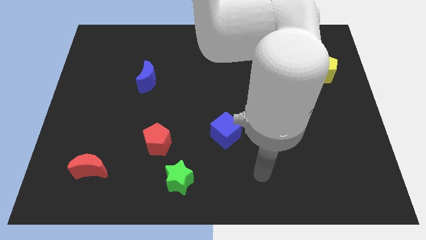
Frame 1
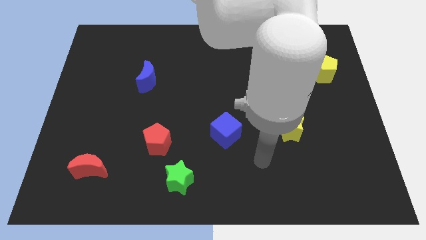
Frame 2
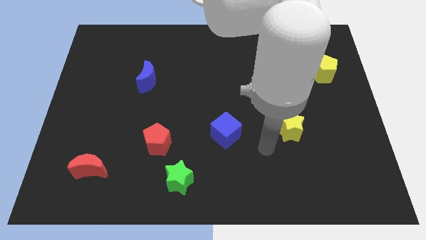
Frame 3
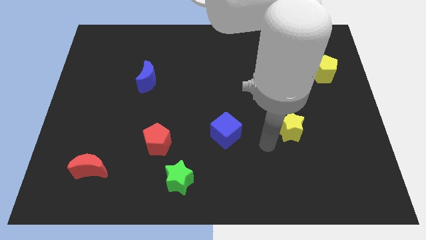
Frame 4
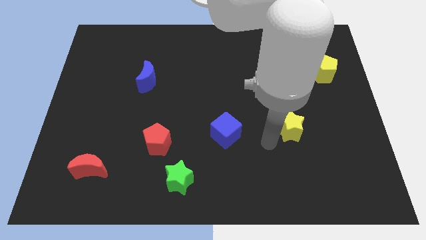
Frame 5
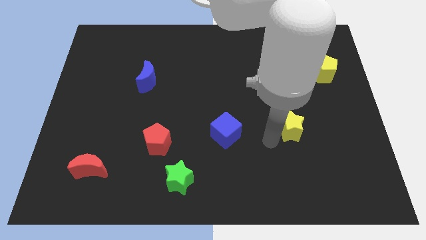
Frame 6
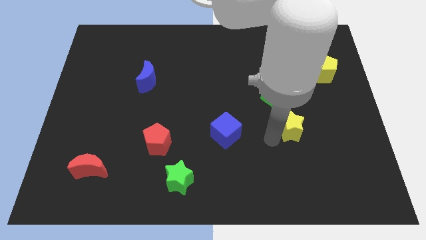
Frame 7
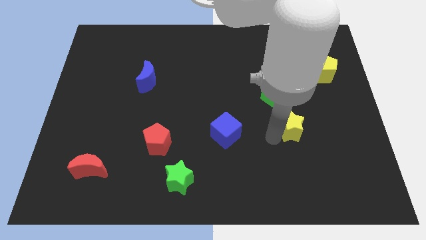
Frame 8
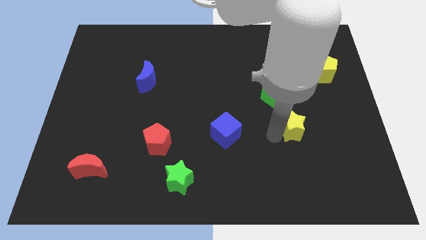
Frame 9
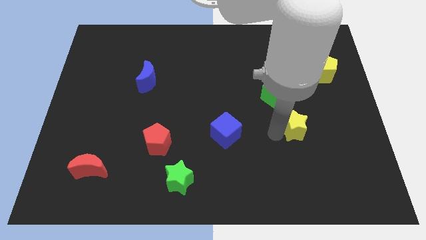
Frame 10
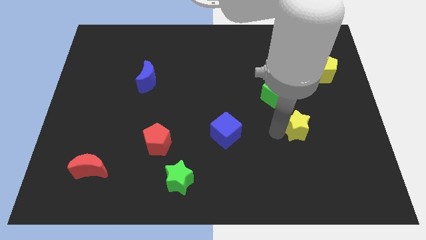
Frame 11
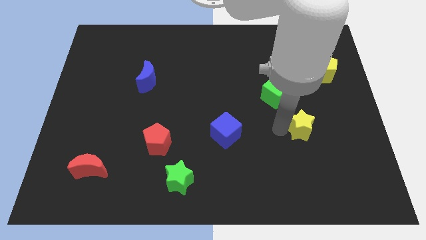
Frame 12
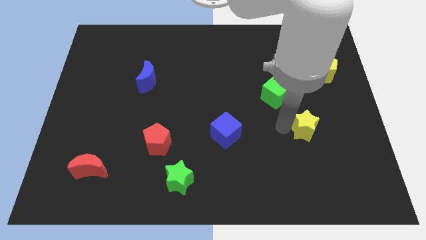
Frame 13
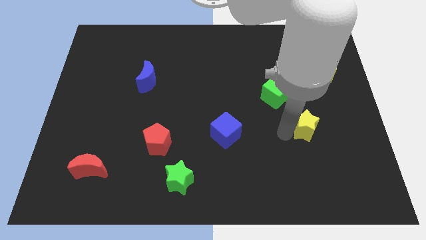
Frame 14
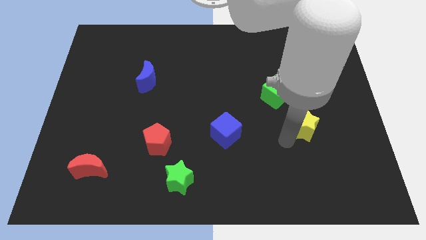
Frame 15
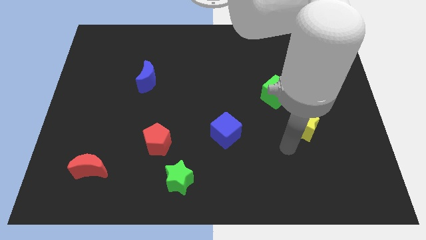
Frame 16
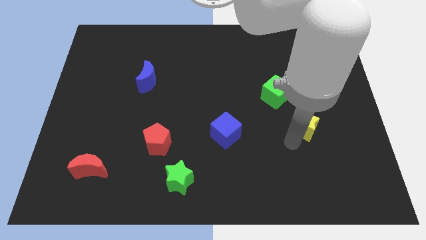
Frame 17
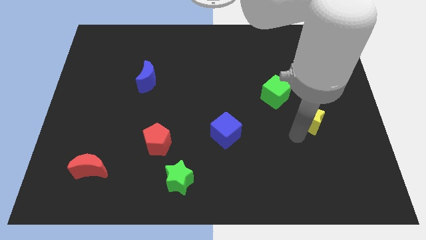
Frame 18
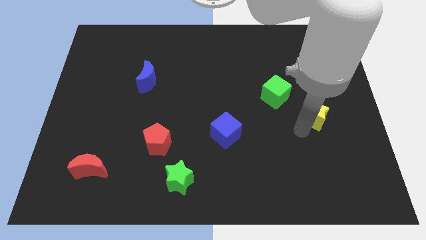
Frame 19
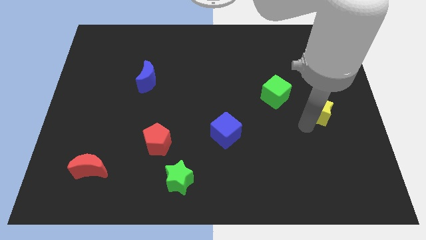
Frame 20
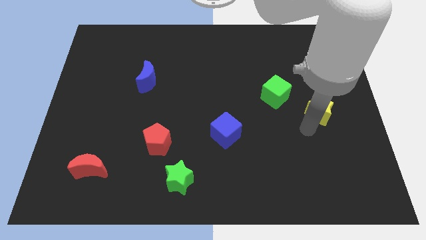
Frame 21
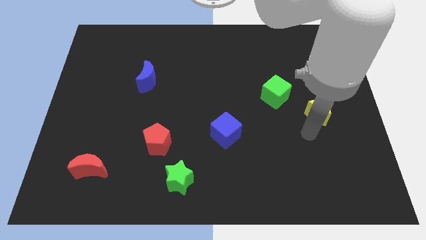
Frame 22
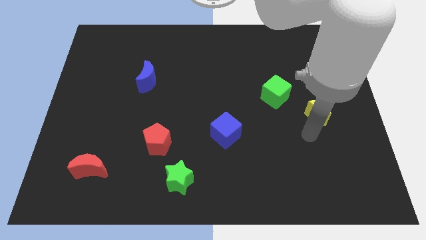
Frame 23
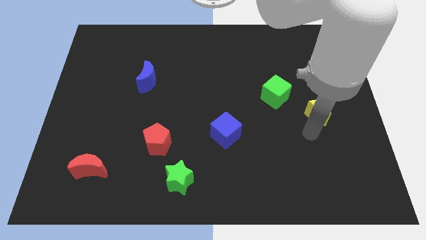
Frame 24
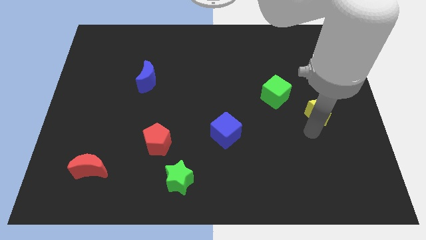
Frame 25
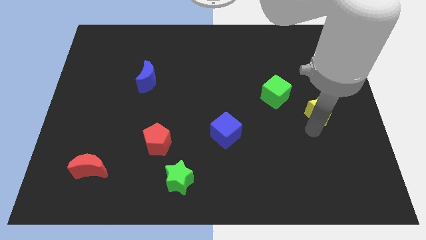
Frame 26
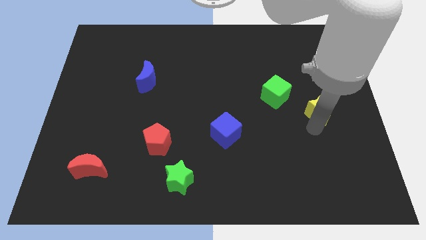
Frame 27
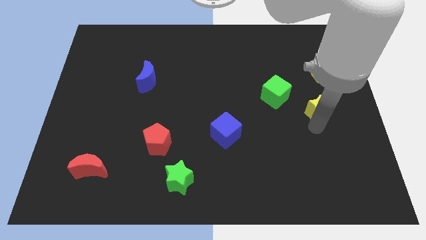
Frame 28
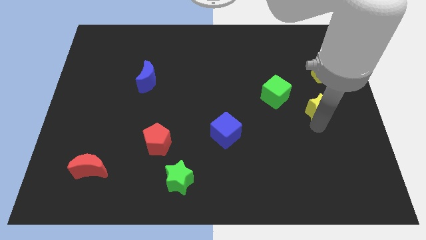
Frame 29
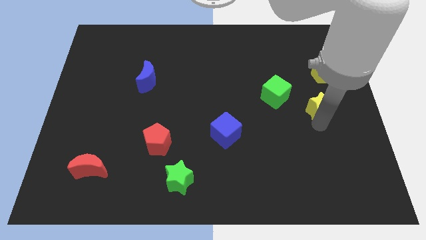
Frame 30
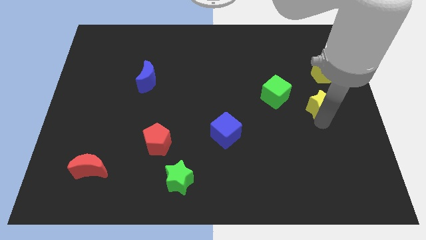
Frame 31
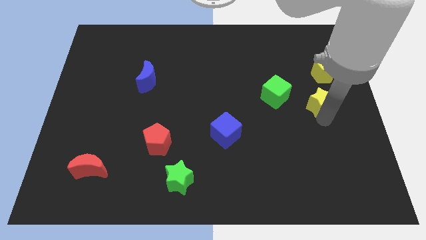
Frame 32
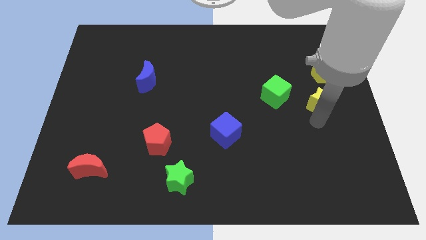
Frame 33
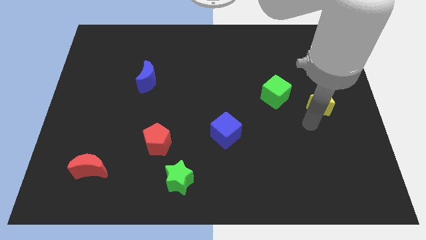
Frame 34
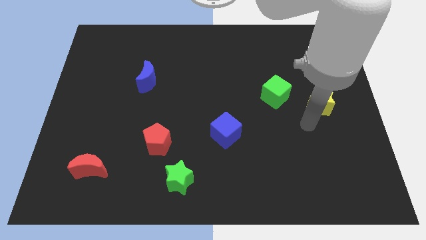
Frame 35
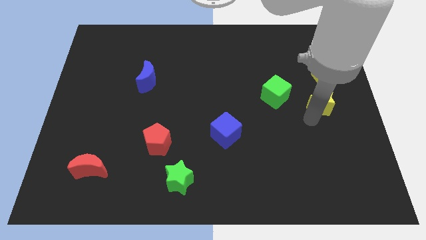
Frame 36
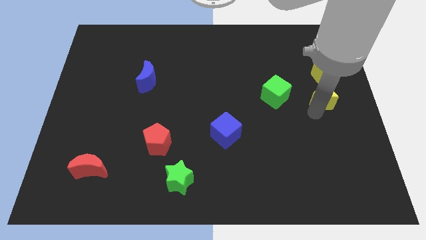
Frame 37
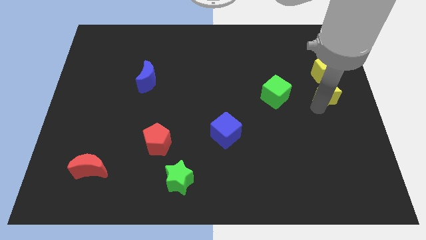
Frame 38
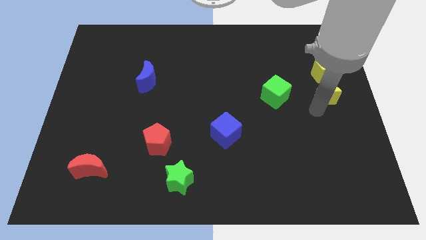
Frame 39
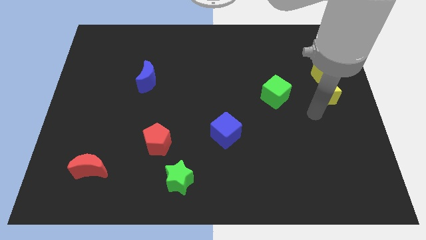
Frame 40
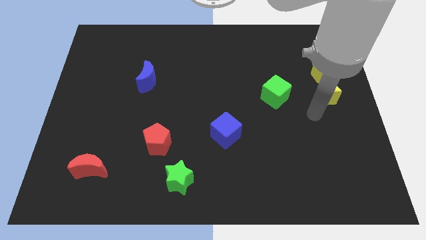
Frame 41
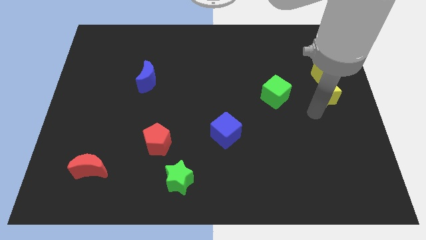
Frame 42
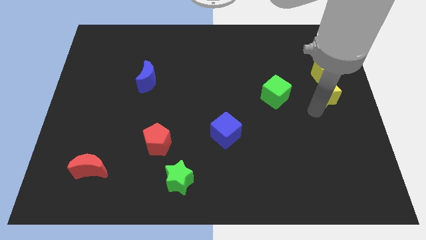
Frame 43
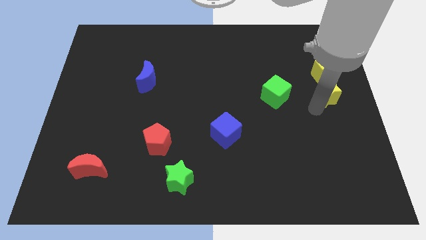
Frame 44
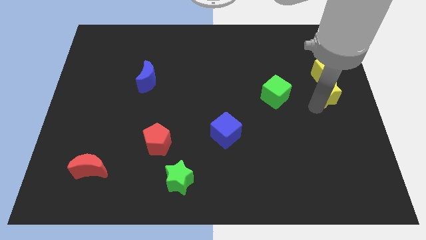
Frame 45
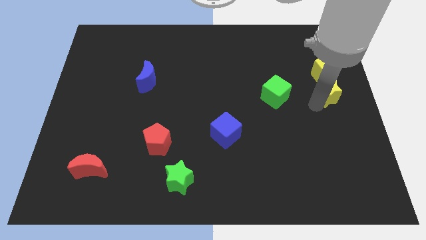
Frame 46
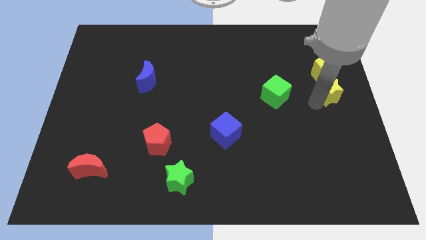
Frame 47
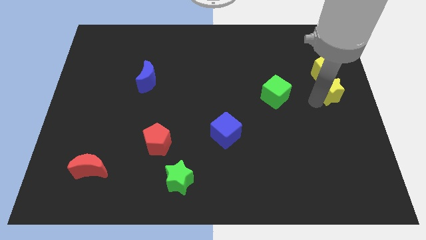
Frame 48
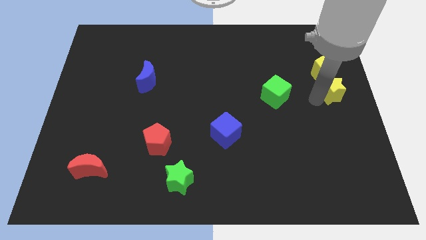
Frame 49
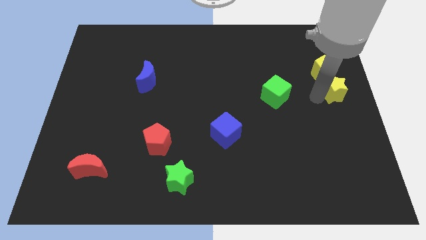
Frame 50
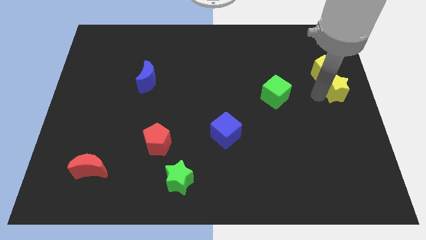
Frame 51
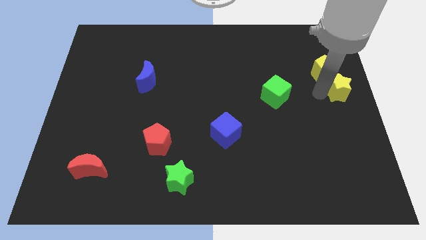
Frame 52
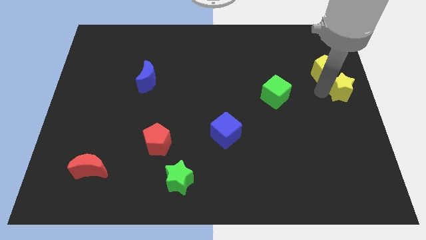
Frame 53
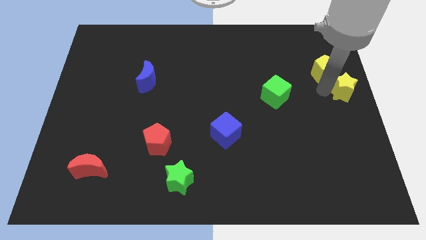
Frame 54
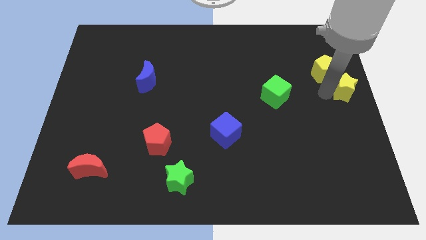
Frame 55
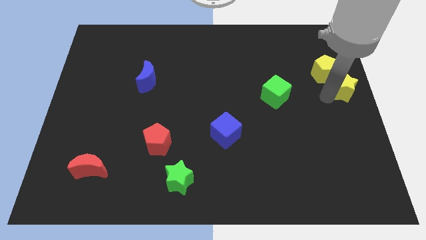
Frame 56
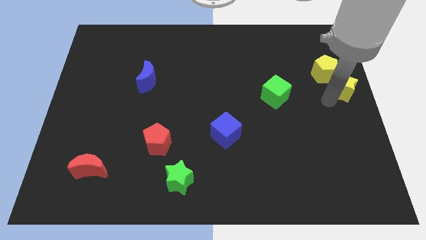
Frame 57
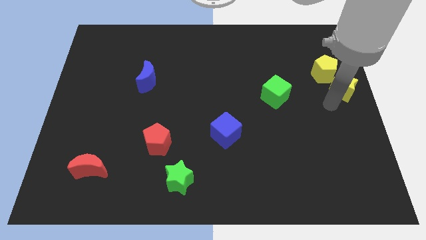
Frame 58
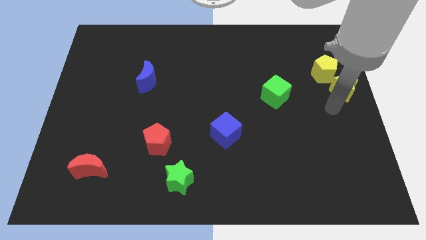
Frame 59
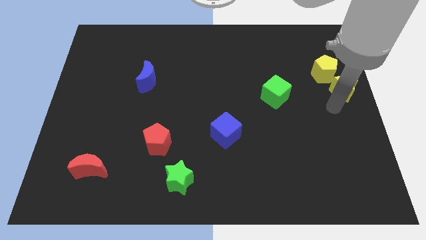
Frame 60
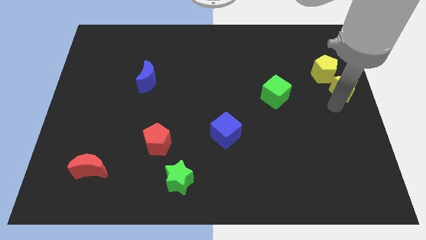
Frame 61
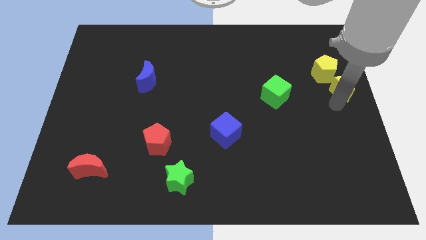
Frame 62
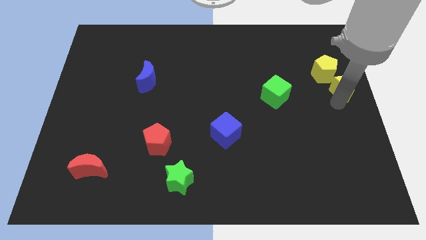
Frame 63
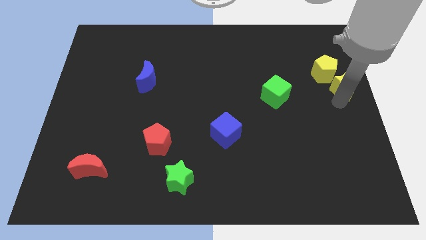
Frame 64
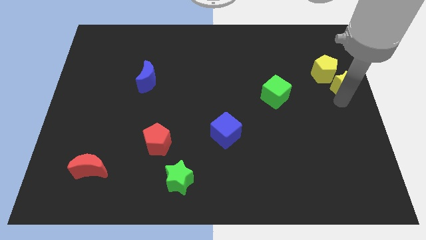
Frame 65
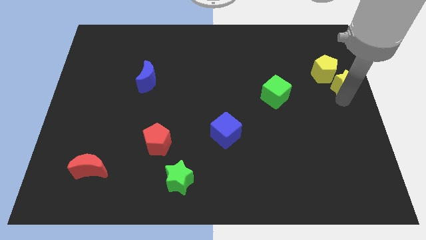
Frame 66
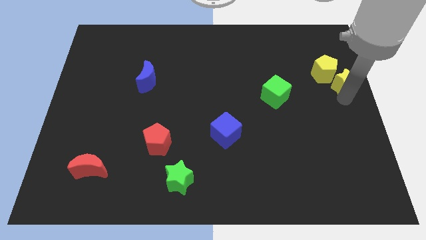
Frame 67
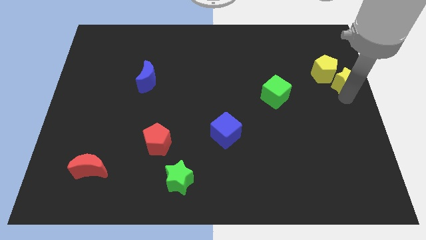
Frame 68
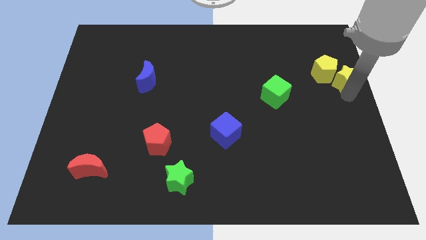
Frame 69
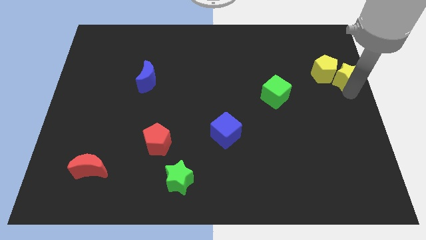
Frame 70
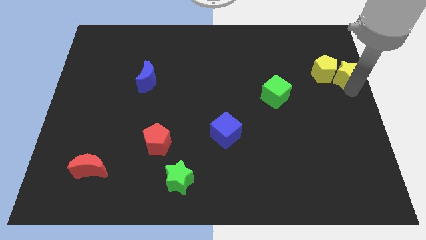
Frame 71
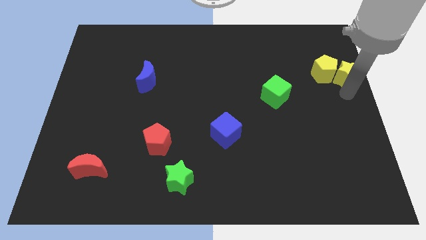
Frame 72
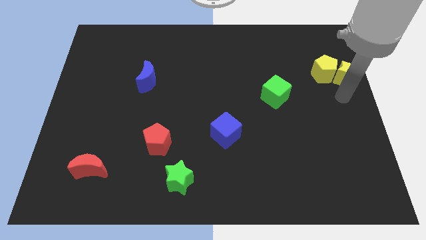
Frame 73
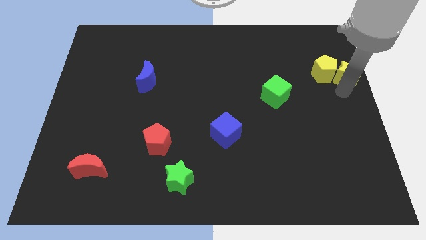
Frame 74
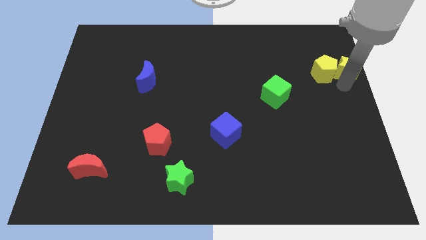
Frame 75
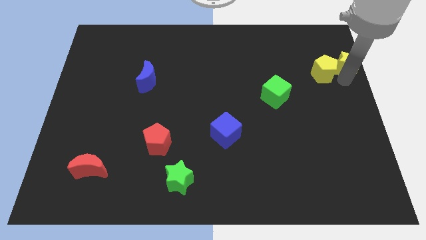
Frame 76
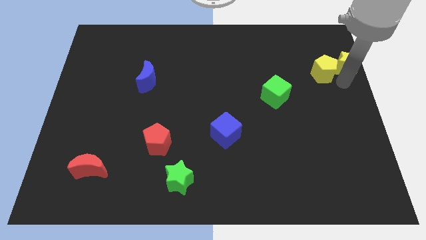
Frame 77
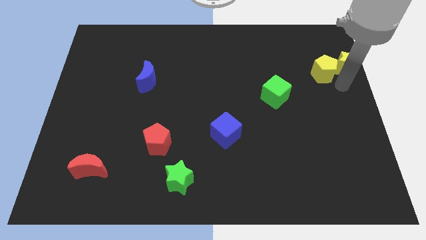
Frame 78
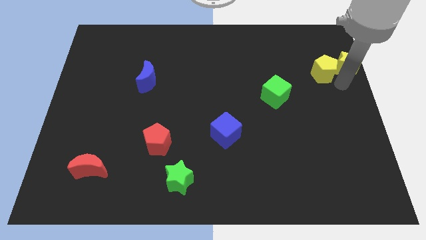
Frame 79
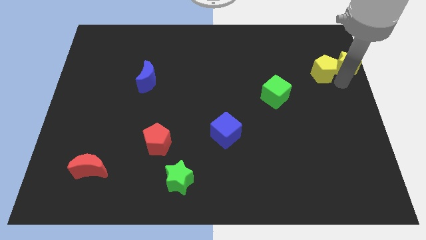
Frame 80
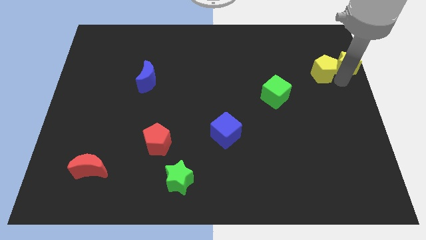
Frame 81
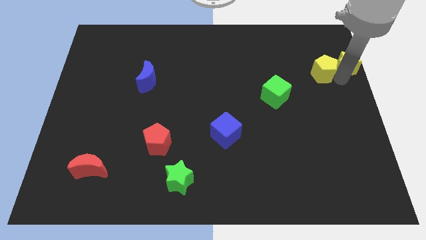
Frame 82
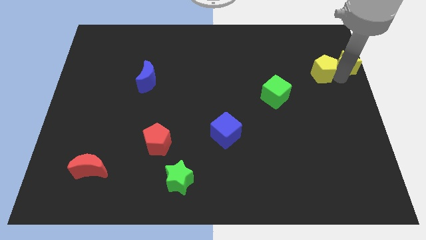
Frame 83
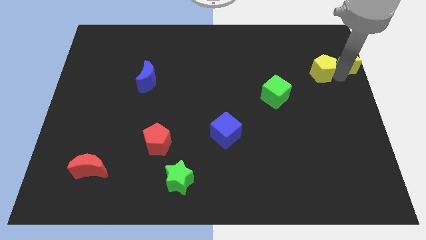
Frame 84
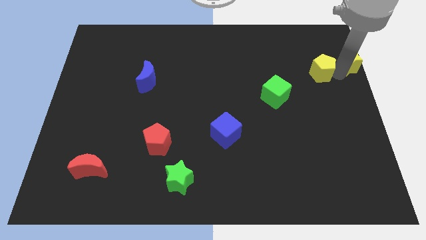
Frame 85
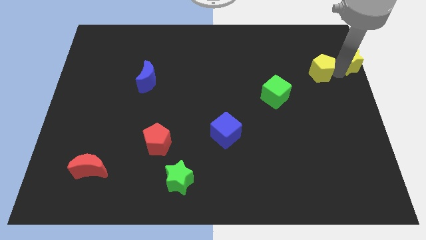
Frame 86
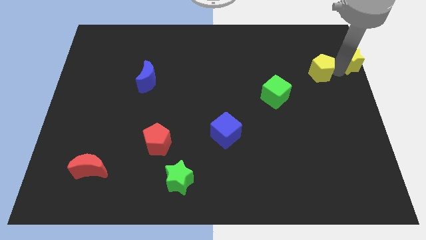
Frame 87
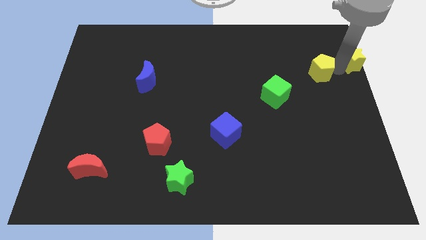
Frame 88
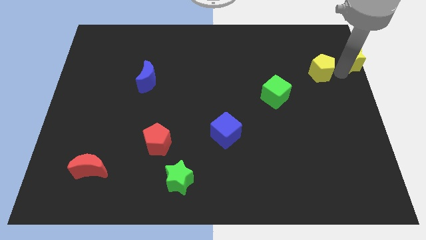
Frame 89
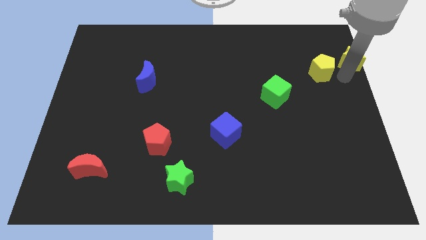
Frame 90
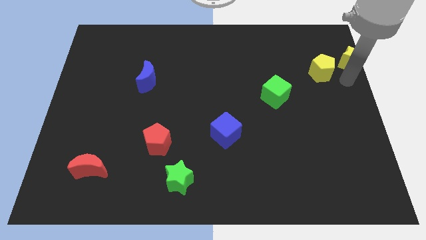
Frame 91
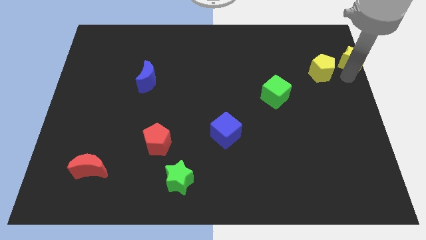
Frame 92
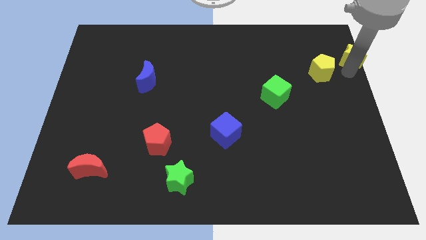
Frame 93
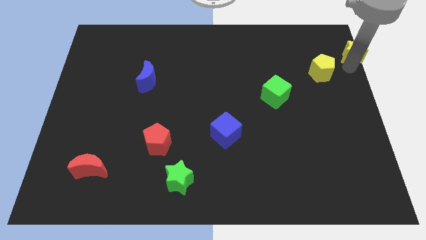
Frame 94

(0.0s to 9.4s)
push the yellow star to the top right of the board
